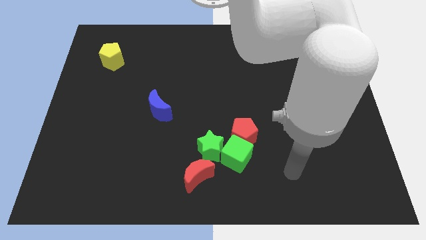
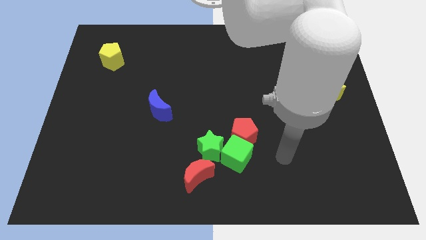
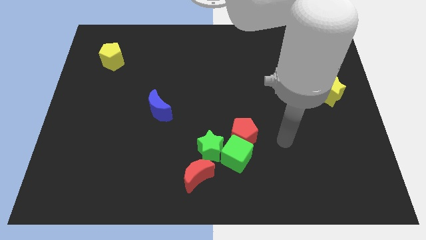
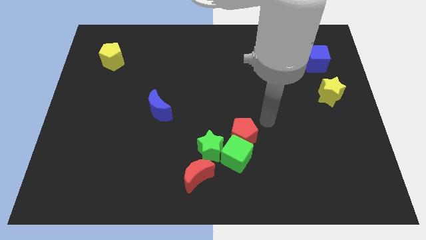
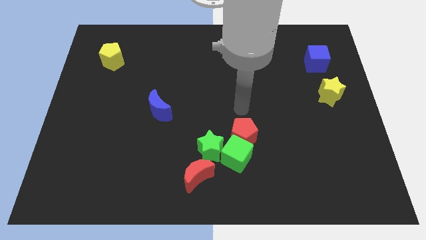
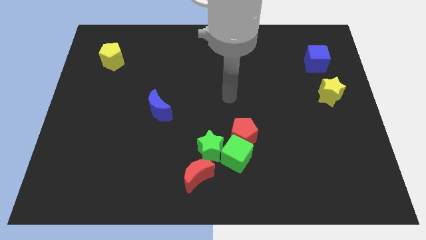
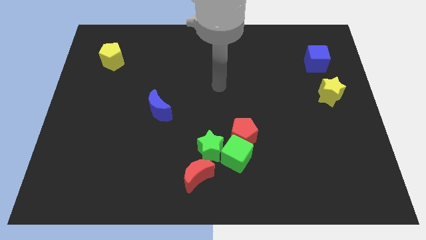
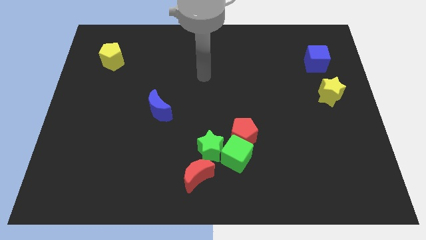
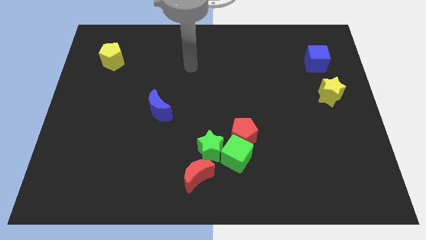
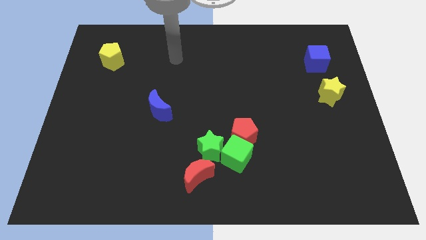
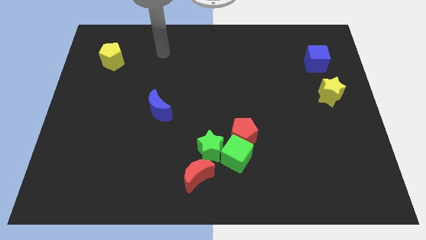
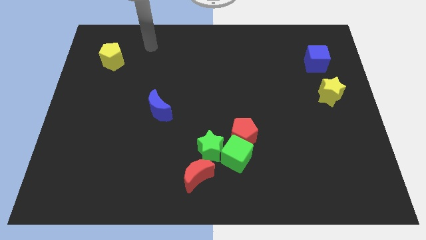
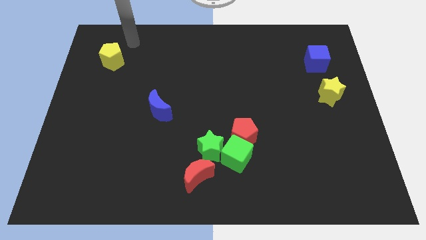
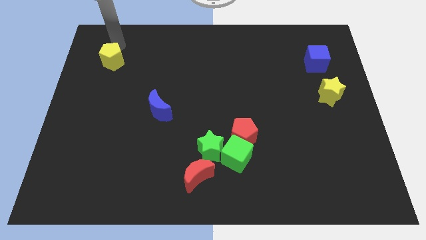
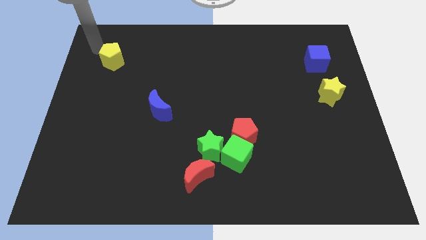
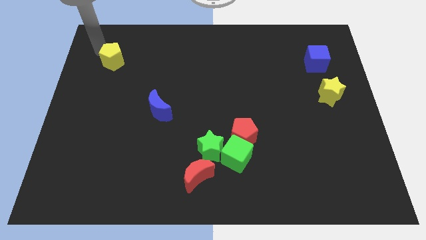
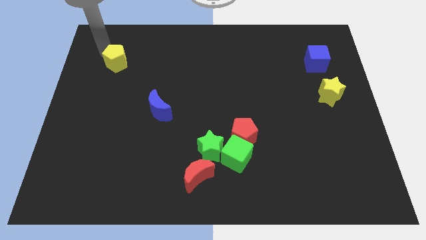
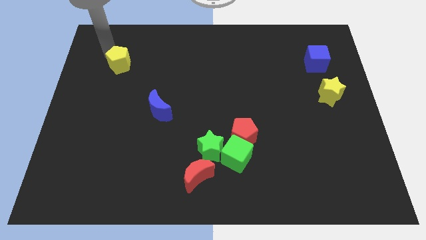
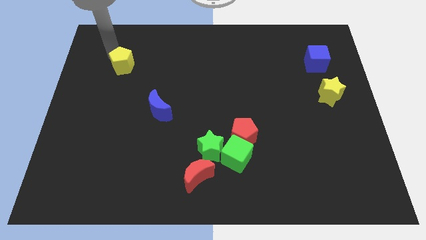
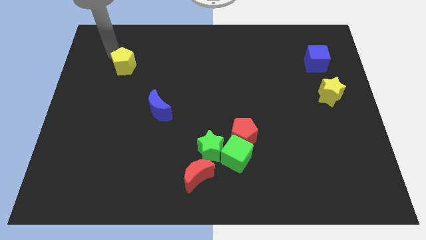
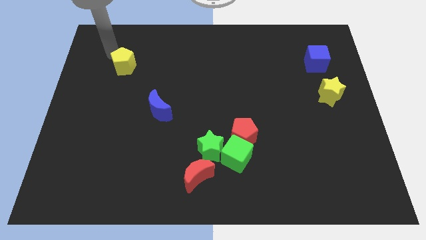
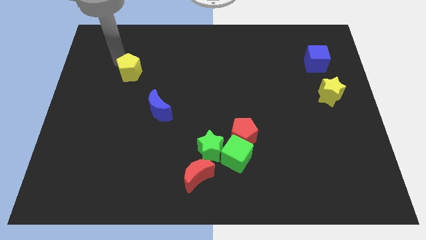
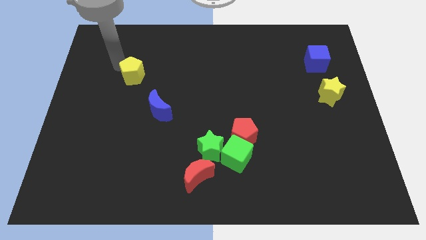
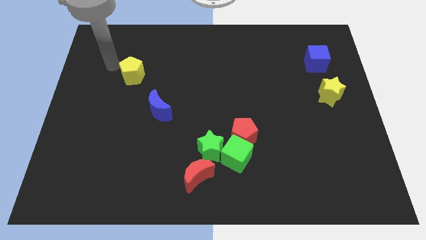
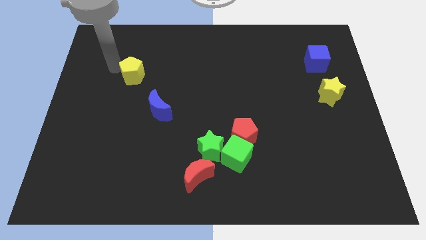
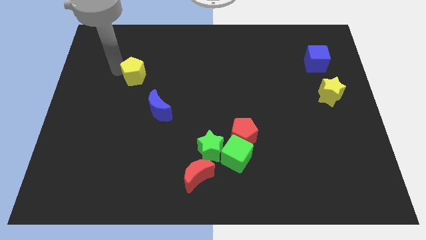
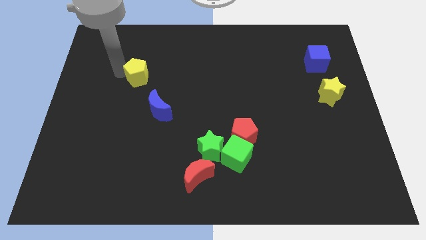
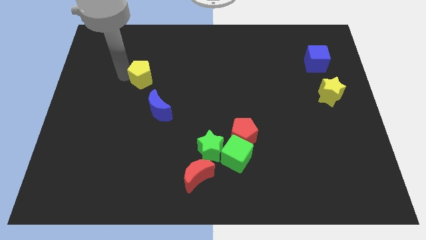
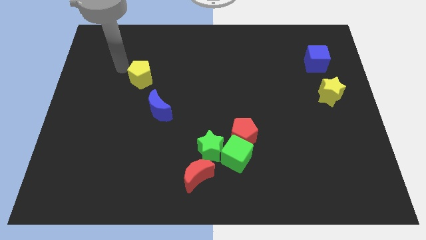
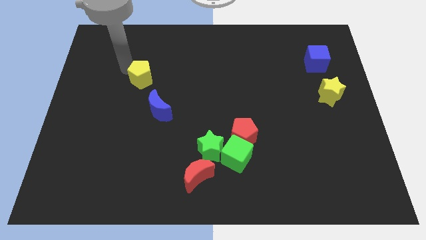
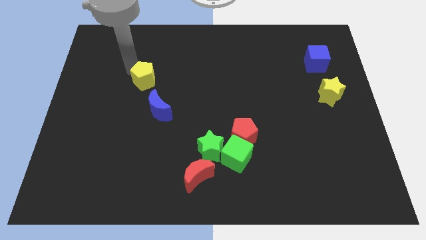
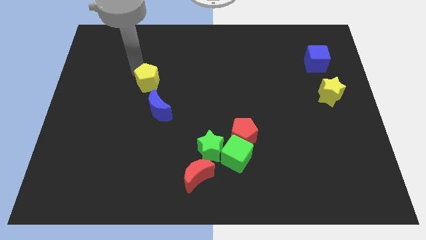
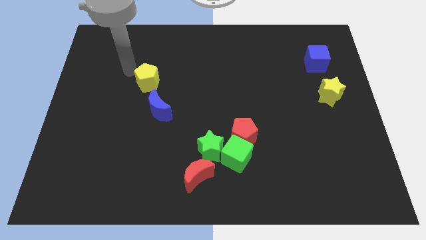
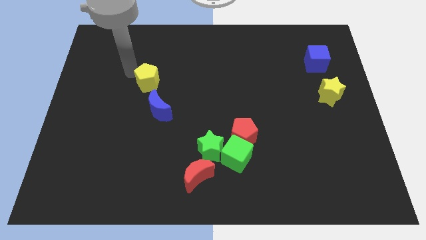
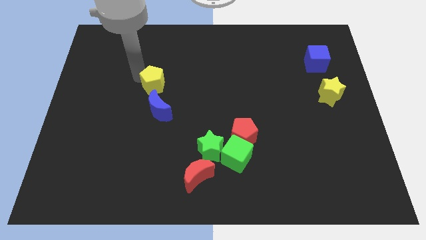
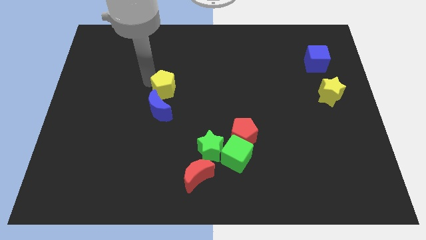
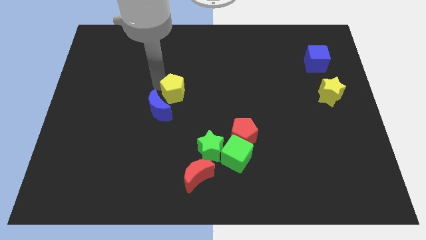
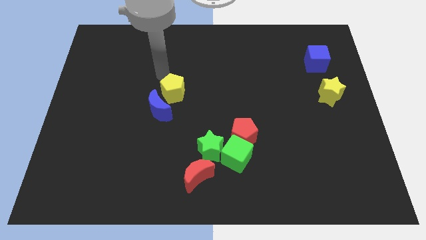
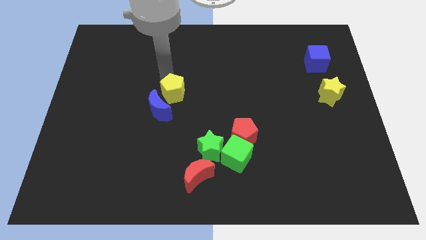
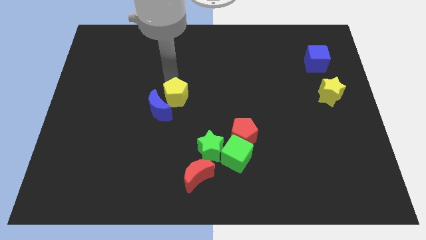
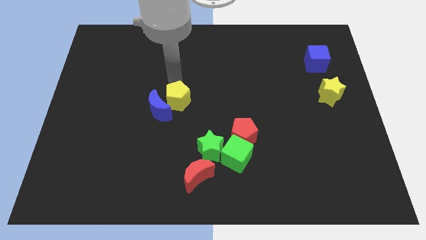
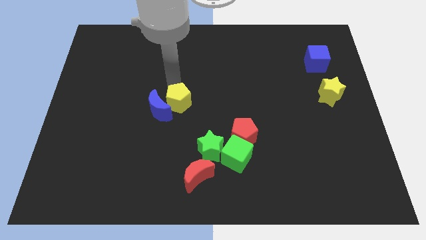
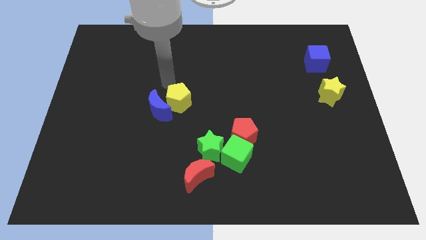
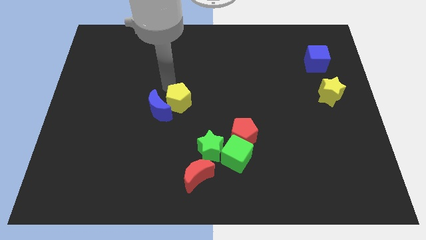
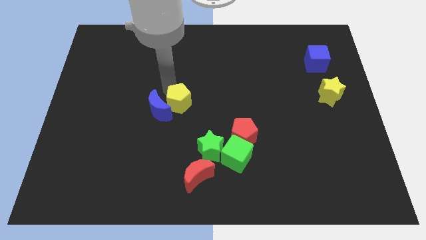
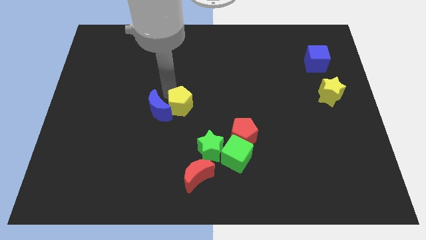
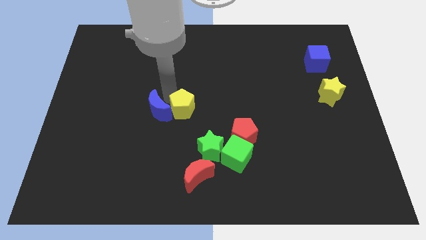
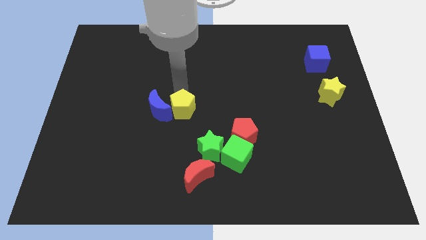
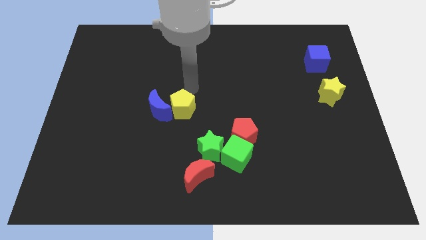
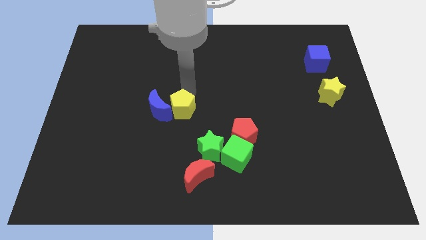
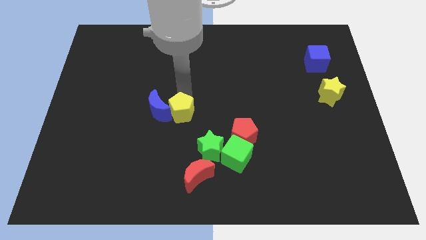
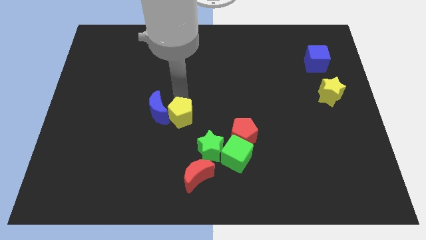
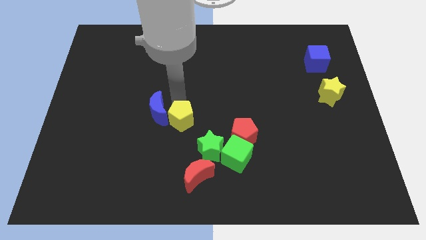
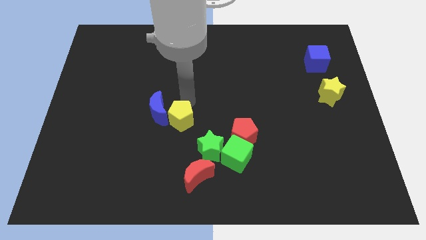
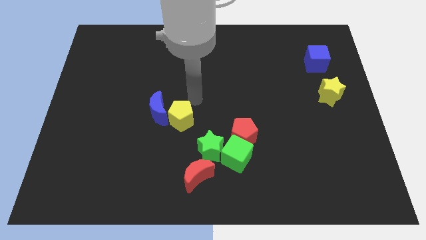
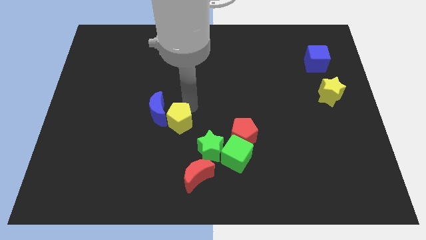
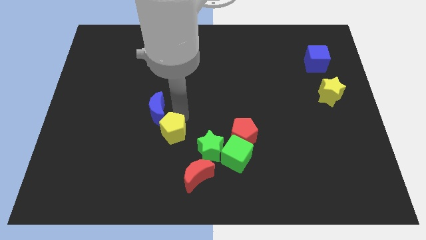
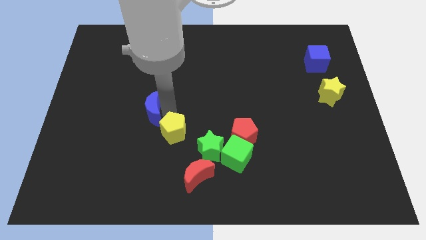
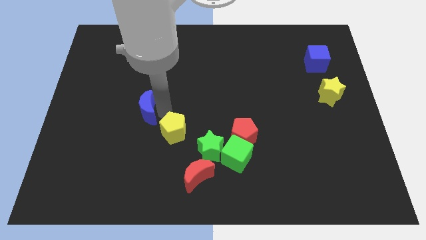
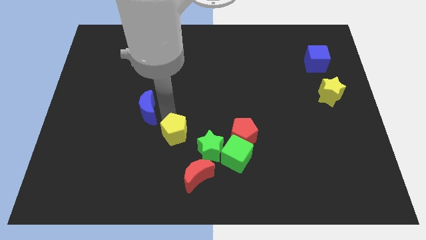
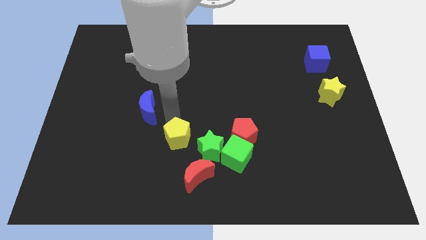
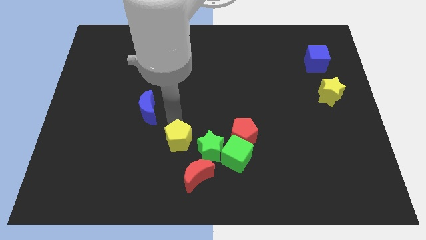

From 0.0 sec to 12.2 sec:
slide the yellow pentagon just left of the green cube
